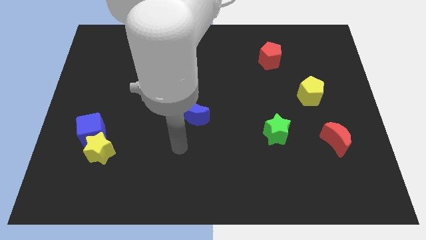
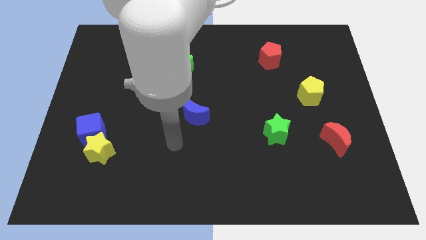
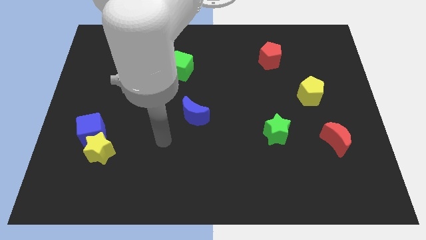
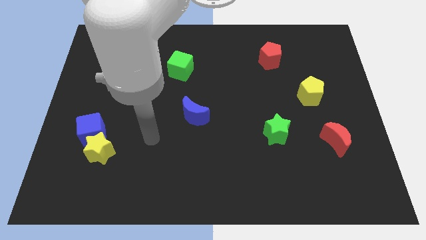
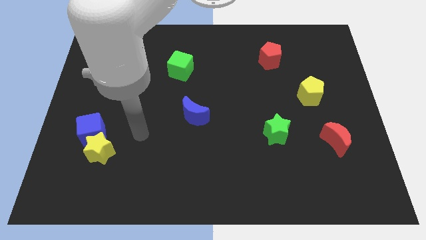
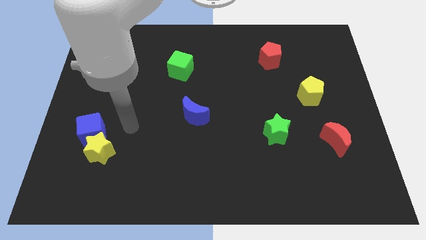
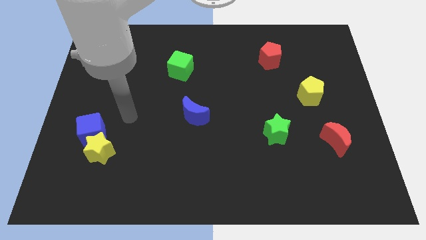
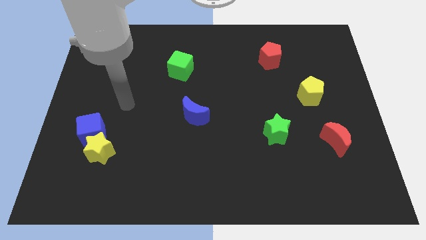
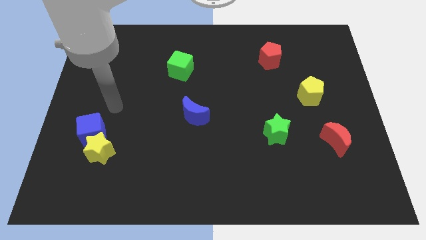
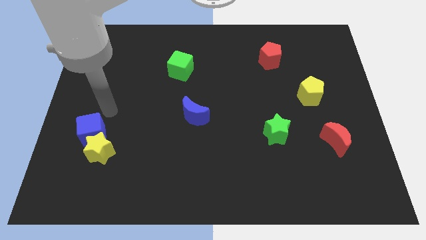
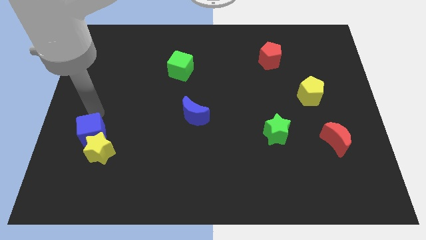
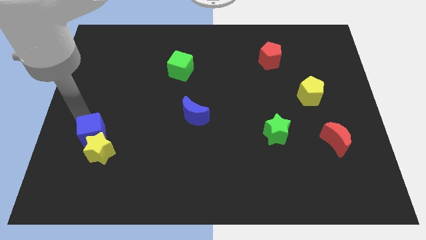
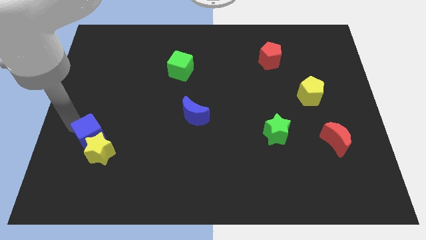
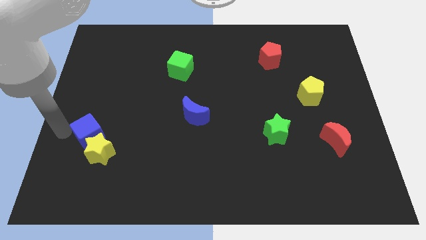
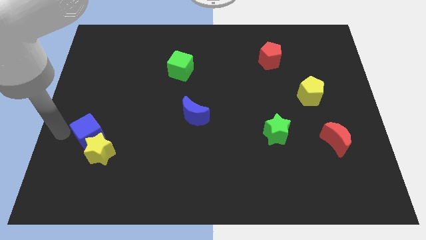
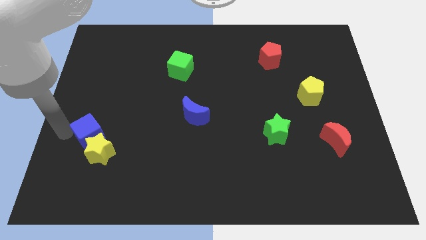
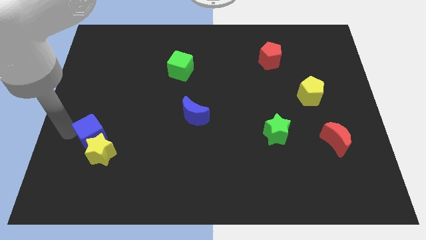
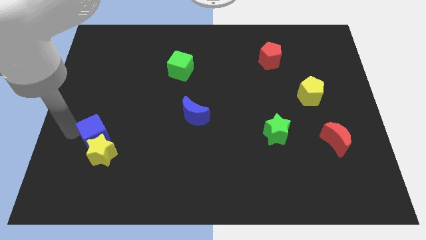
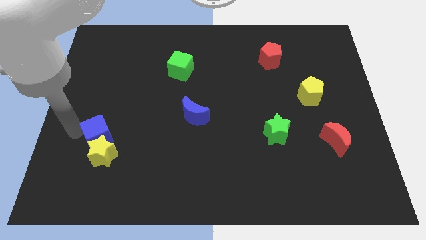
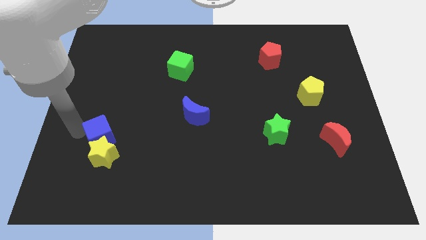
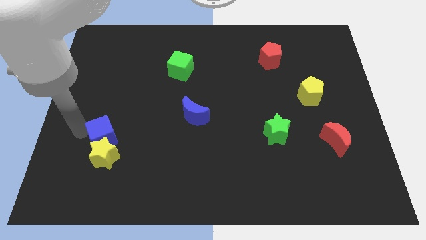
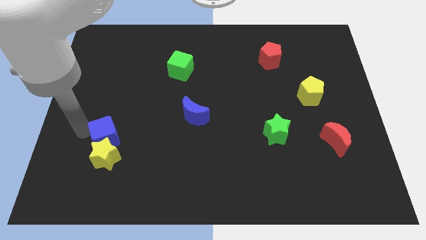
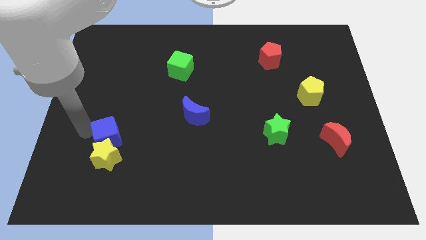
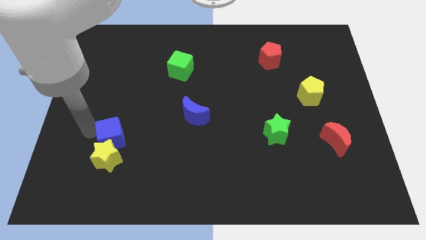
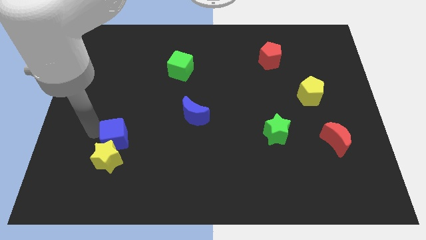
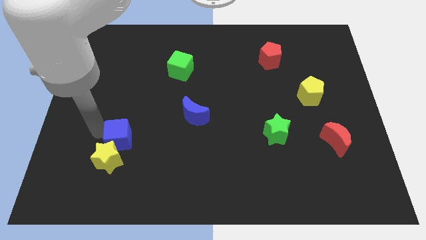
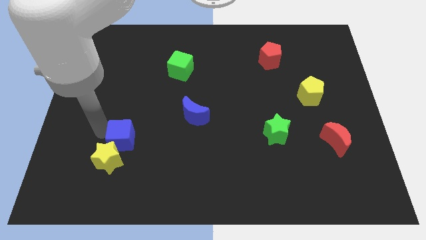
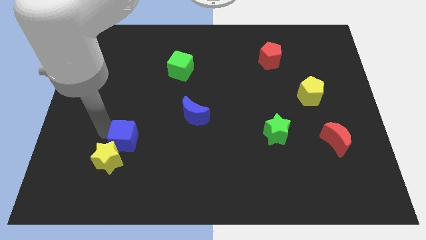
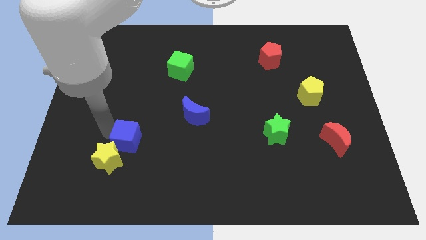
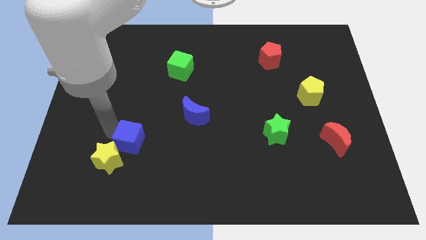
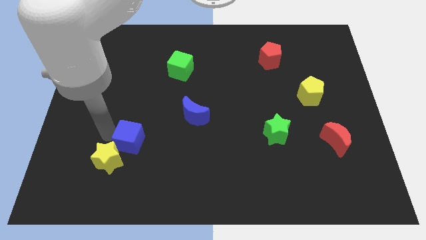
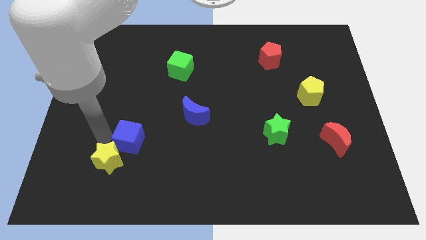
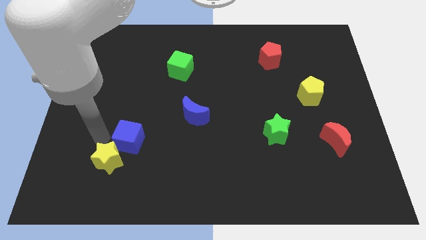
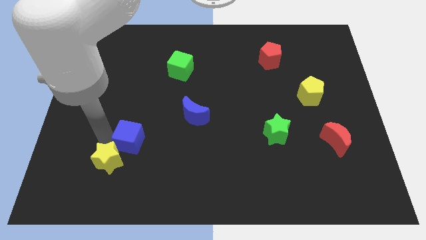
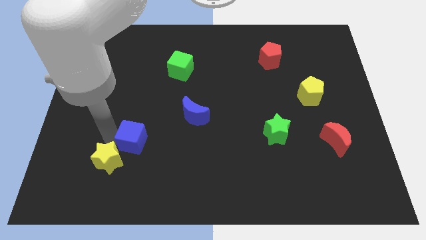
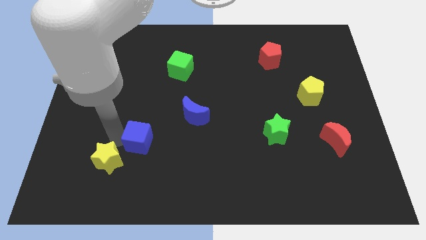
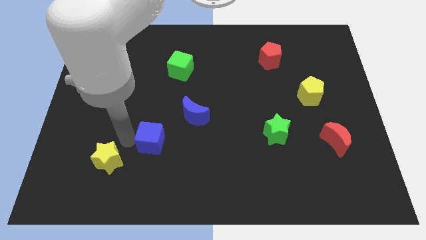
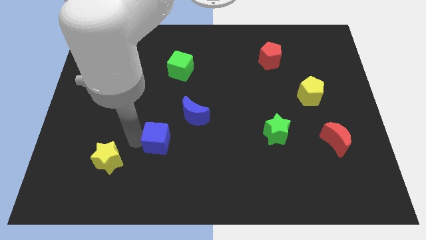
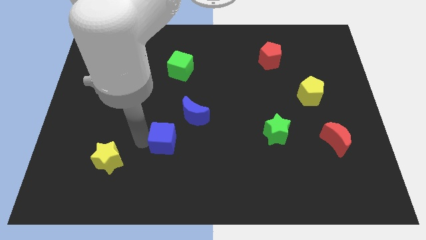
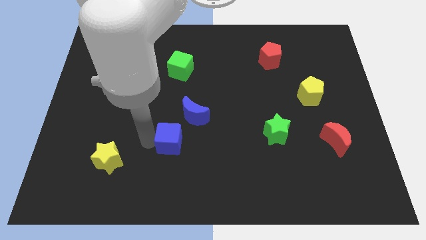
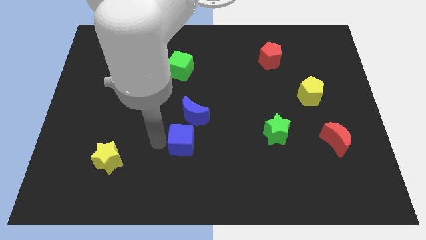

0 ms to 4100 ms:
move the blue cube right

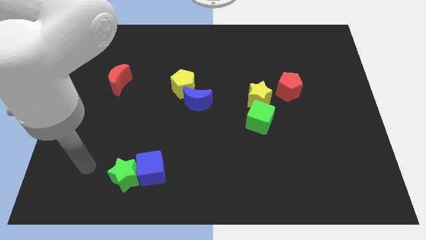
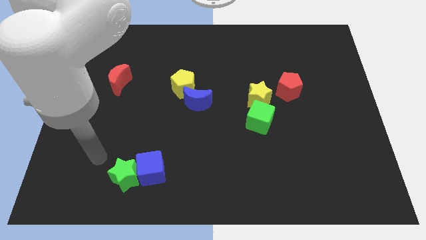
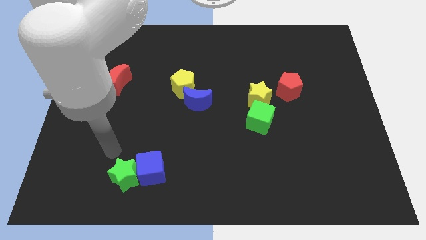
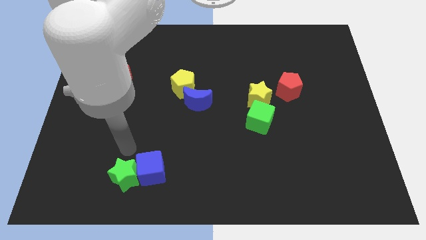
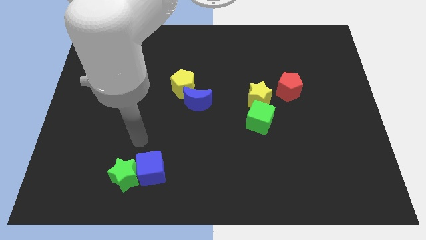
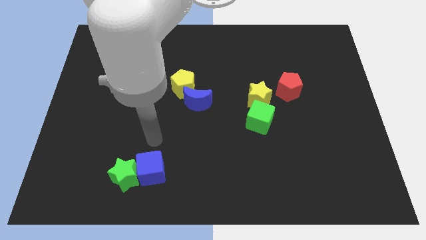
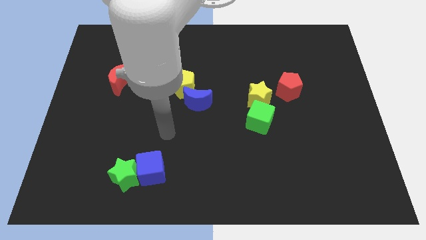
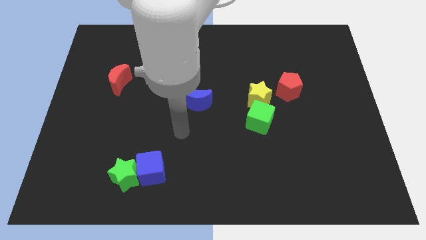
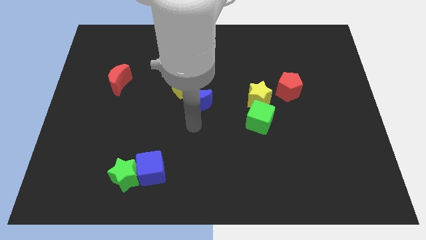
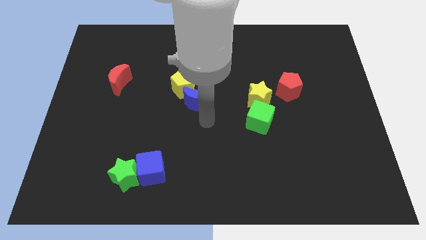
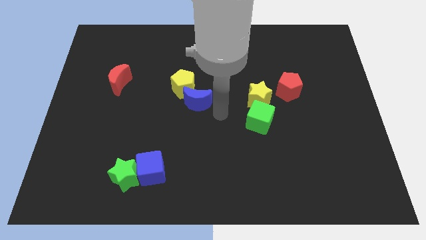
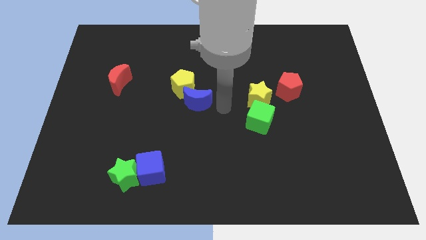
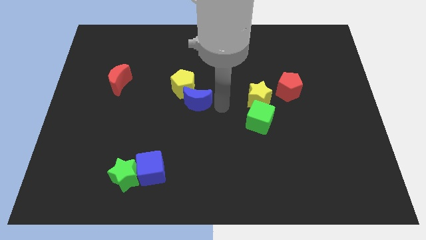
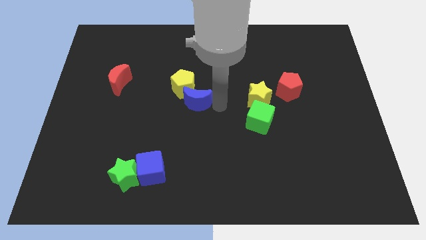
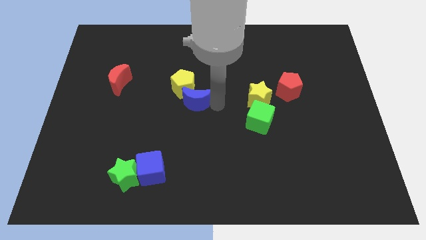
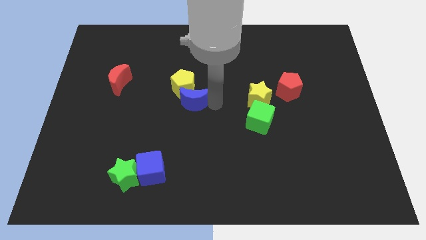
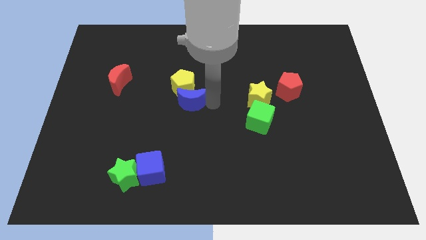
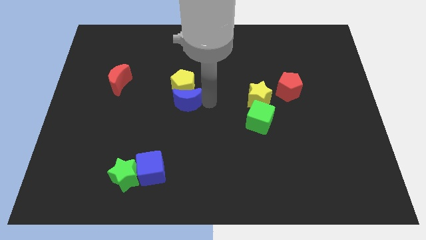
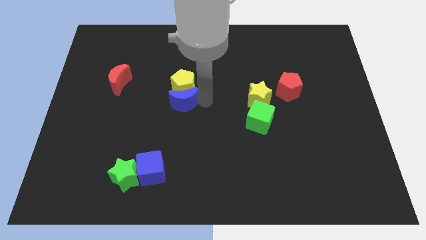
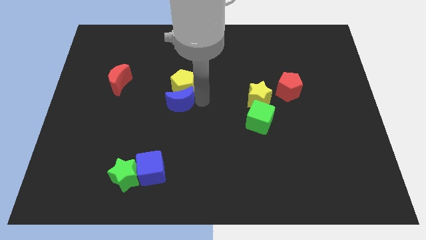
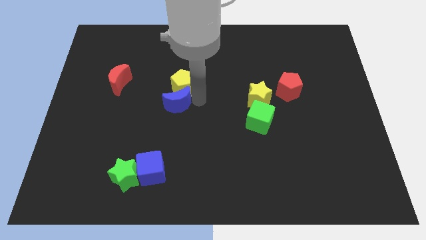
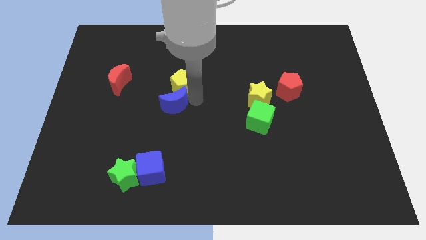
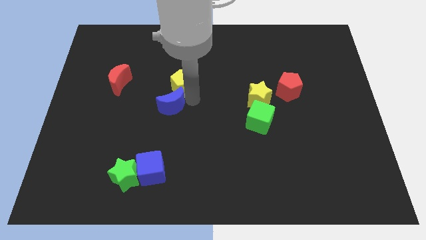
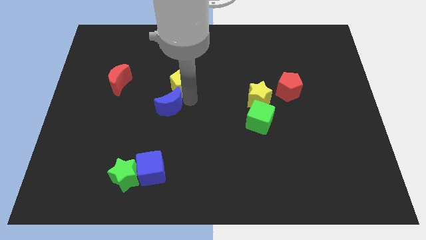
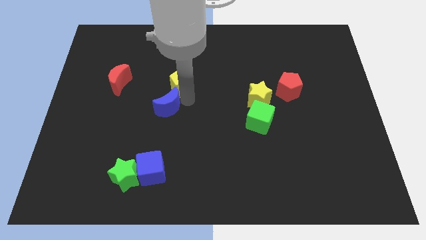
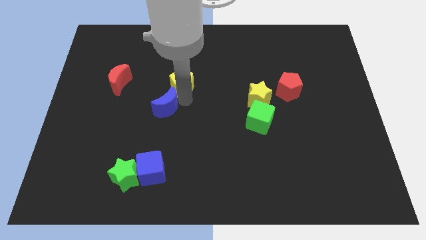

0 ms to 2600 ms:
slide the blue moon slightly left

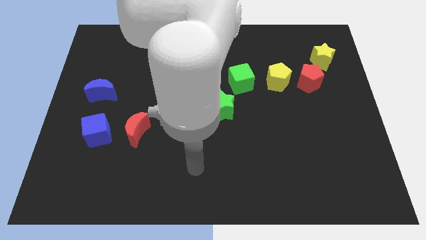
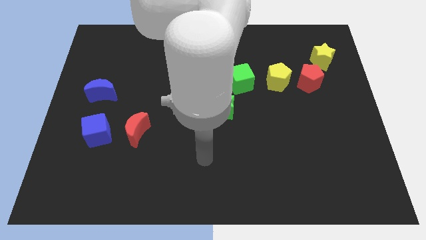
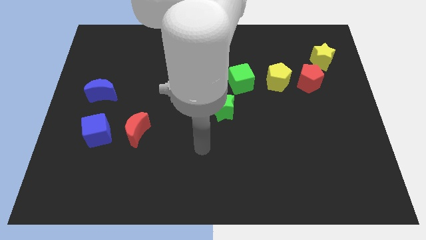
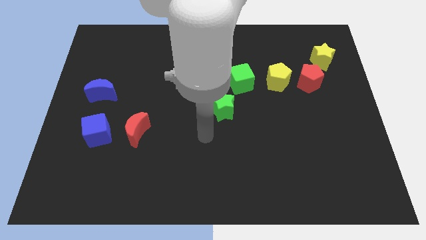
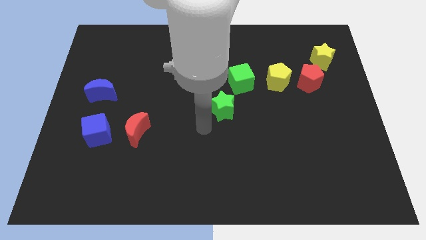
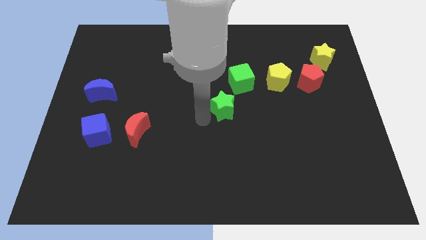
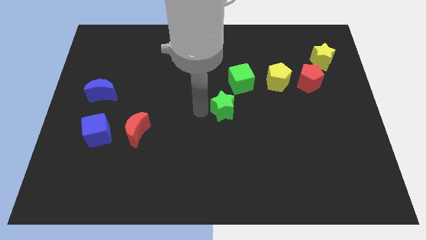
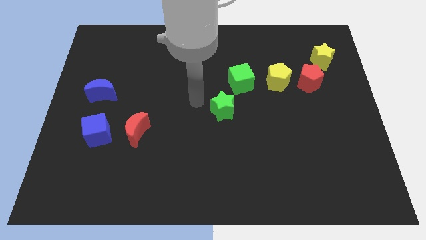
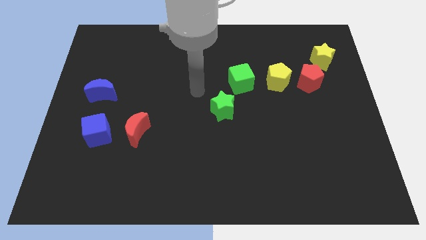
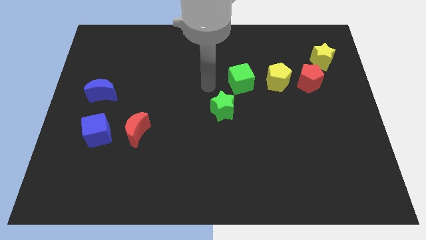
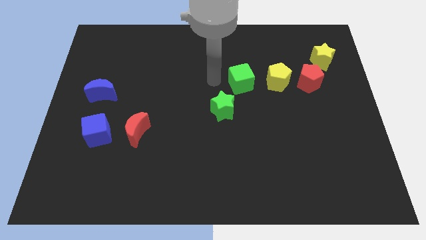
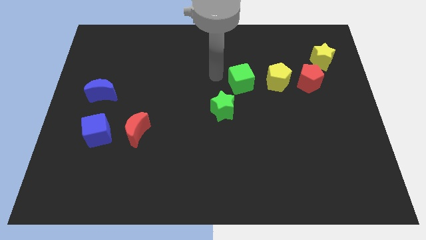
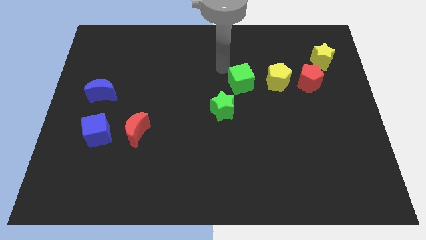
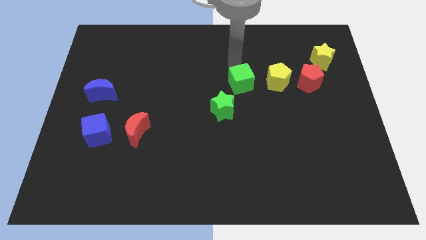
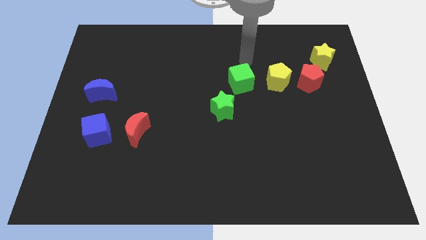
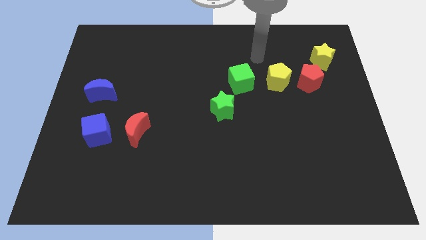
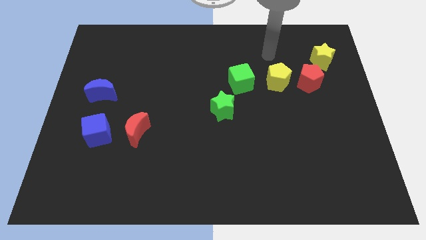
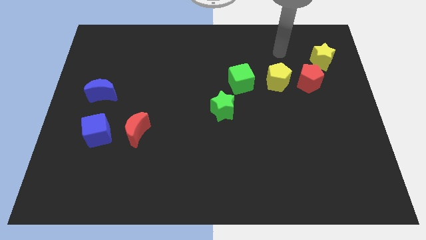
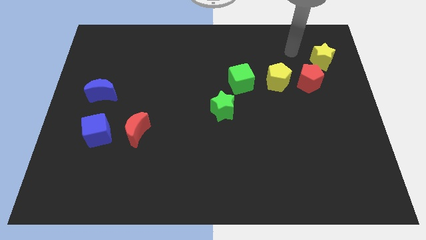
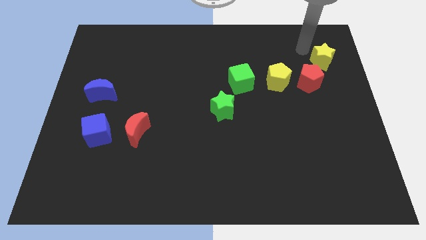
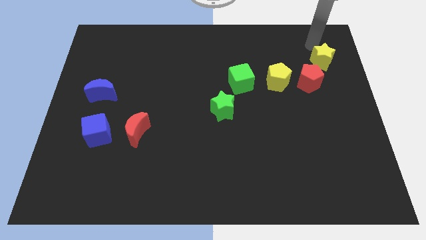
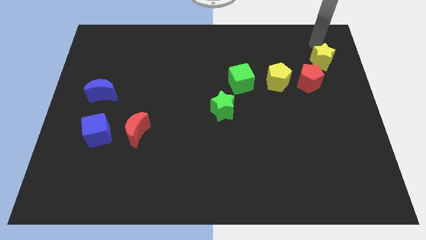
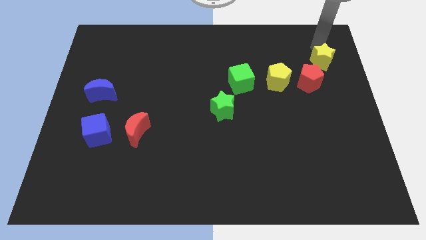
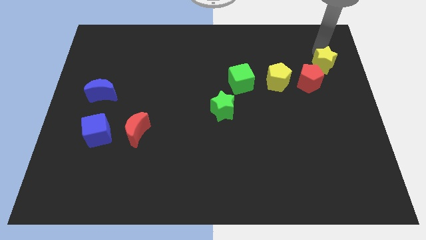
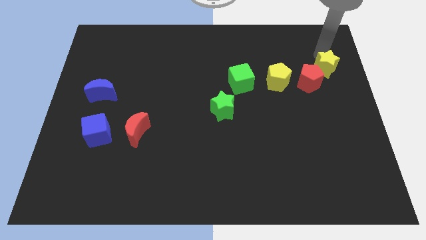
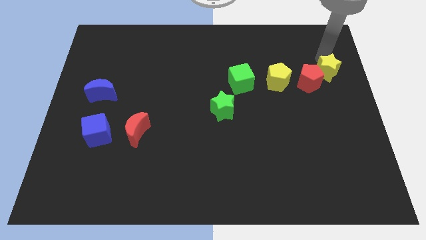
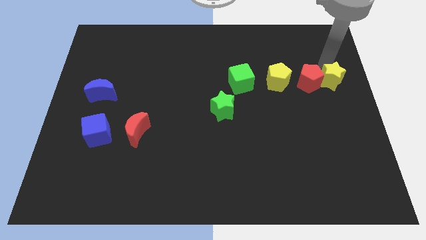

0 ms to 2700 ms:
slide the yellow star downwards a little bit
